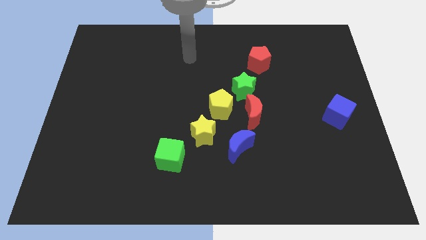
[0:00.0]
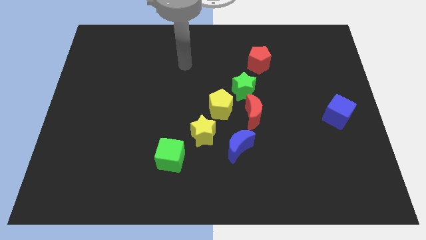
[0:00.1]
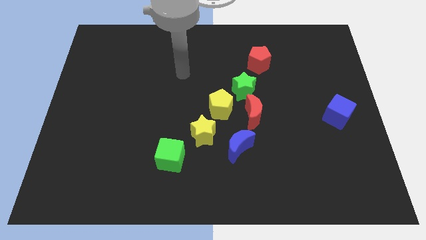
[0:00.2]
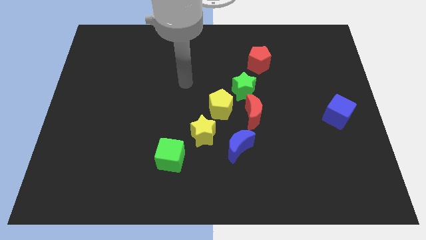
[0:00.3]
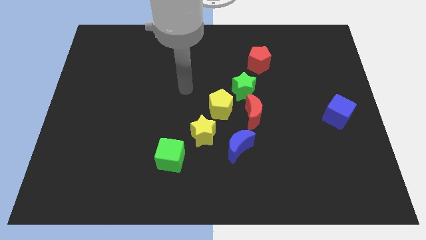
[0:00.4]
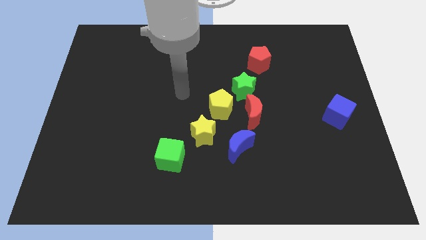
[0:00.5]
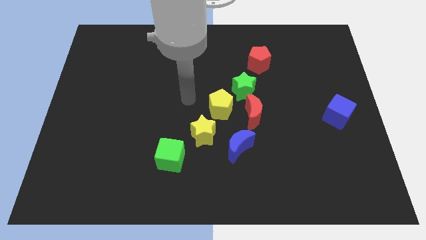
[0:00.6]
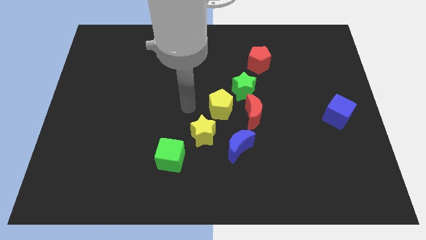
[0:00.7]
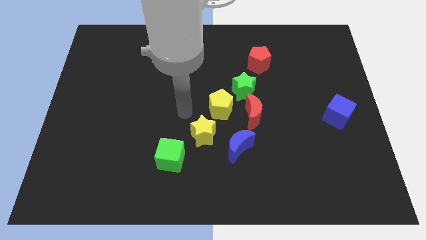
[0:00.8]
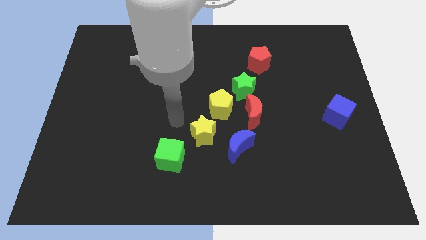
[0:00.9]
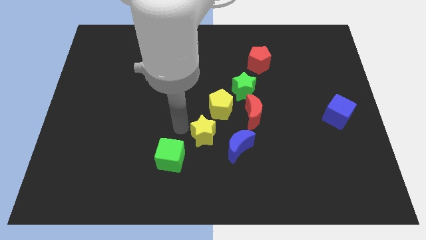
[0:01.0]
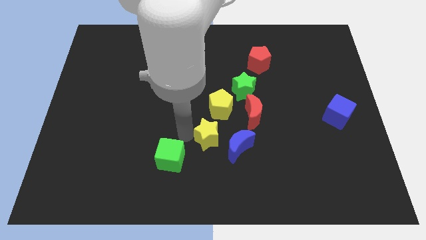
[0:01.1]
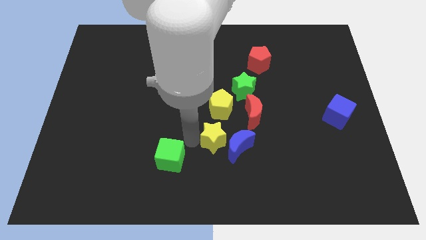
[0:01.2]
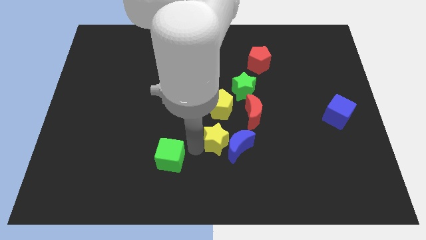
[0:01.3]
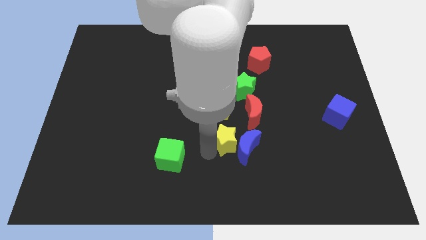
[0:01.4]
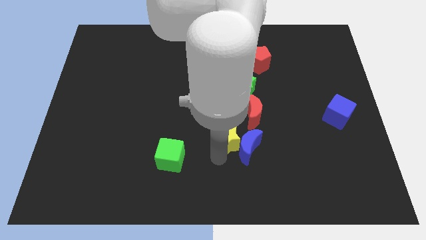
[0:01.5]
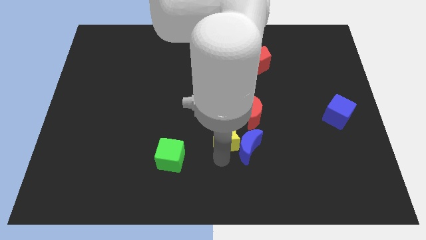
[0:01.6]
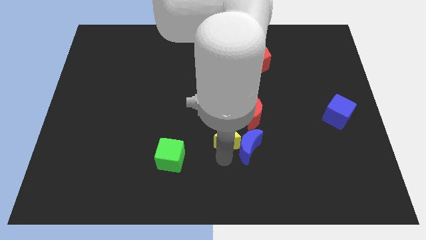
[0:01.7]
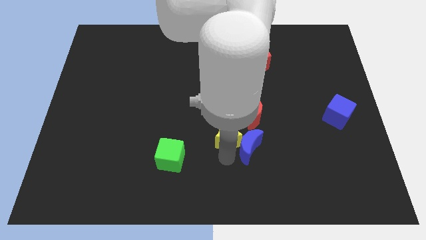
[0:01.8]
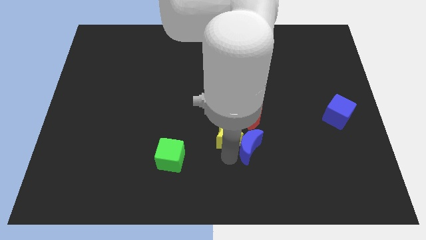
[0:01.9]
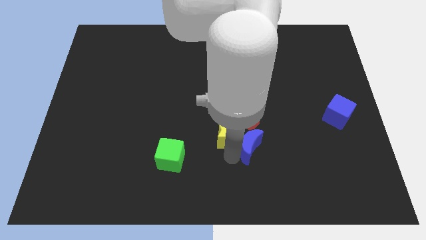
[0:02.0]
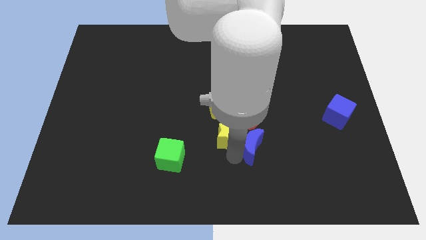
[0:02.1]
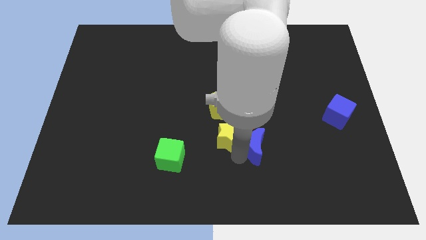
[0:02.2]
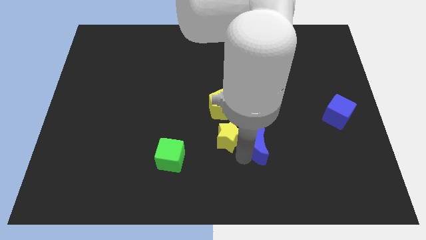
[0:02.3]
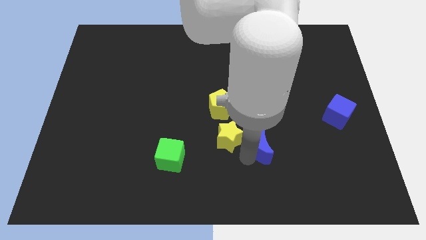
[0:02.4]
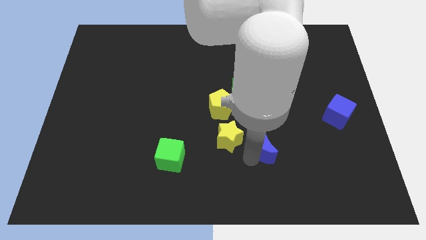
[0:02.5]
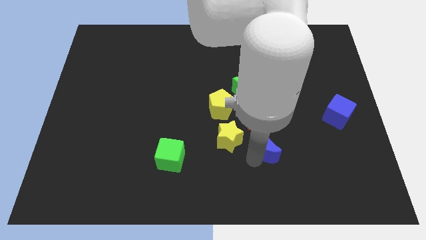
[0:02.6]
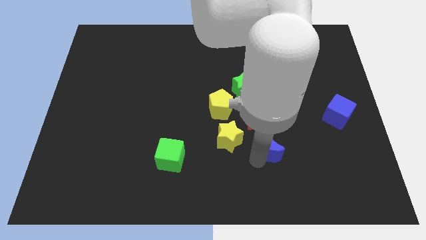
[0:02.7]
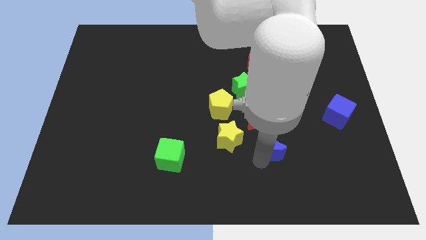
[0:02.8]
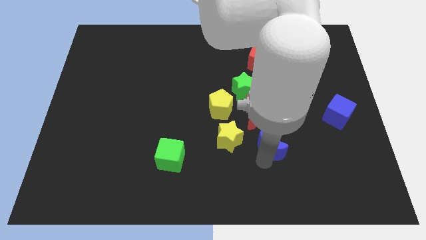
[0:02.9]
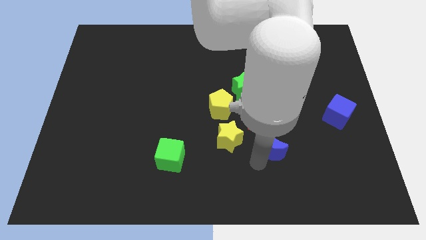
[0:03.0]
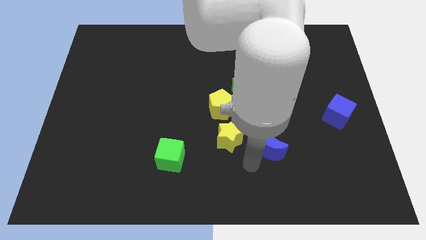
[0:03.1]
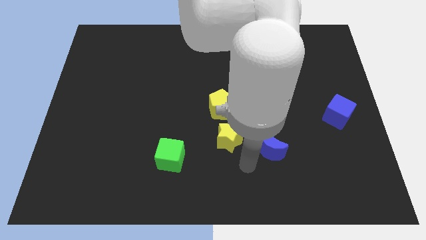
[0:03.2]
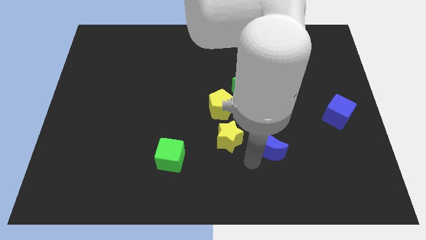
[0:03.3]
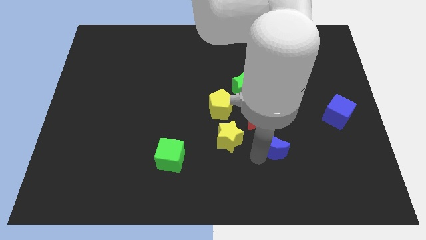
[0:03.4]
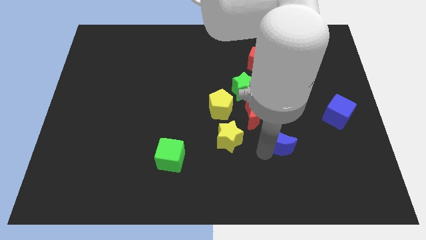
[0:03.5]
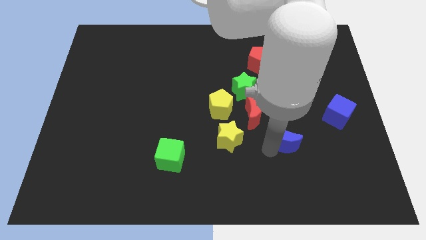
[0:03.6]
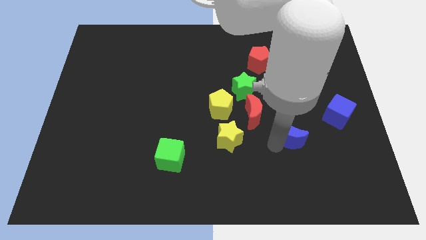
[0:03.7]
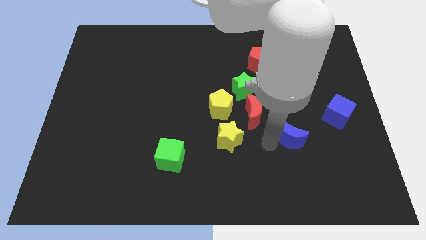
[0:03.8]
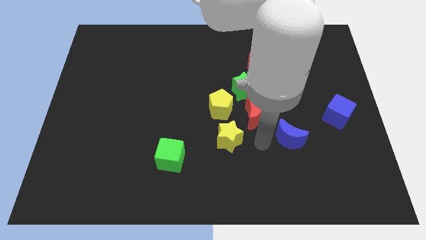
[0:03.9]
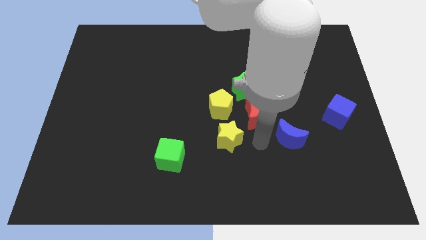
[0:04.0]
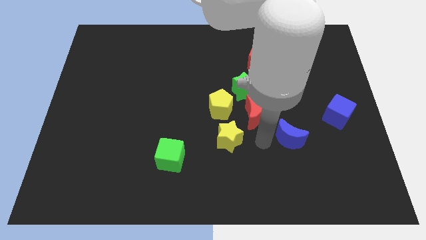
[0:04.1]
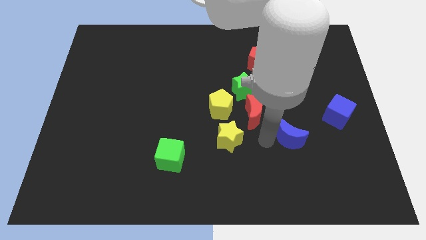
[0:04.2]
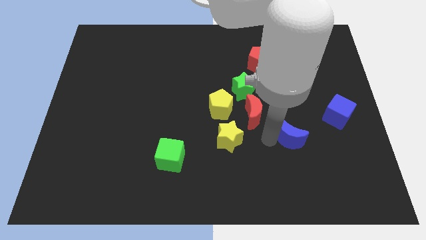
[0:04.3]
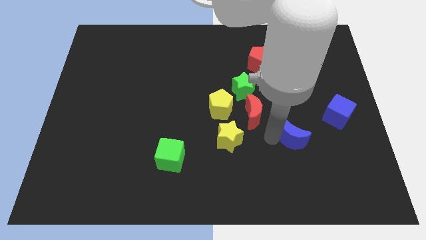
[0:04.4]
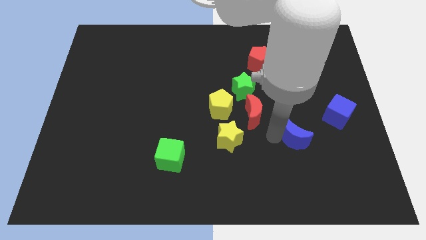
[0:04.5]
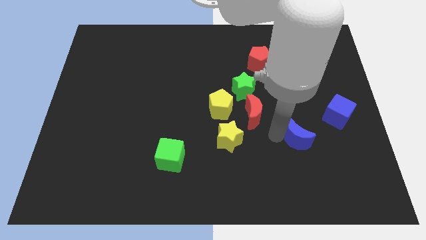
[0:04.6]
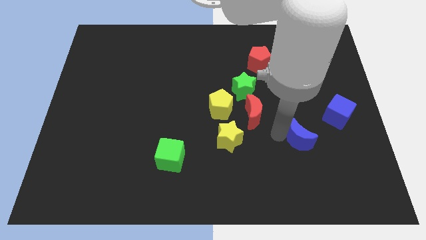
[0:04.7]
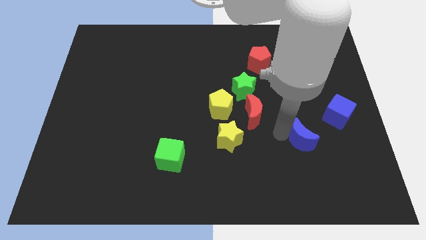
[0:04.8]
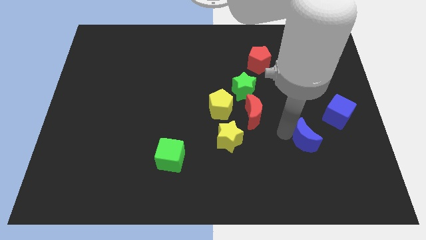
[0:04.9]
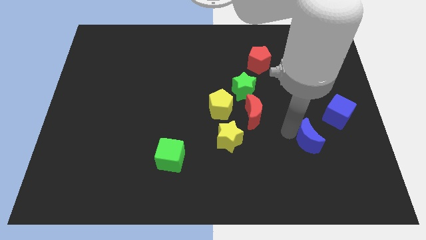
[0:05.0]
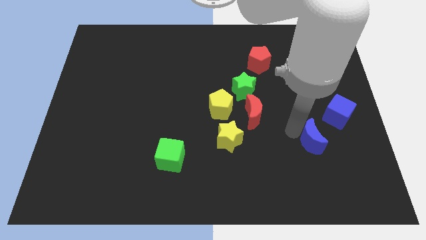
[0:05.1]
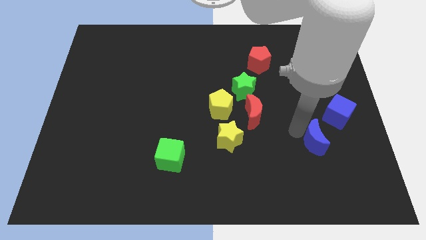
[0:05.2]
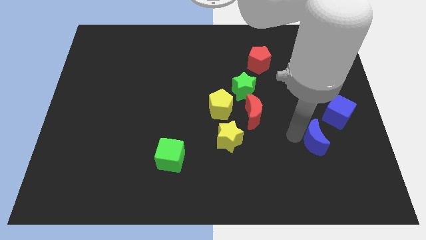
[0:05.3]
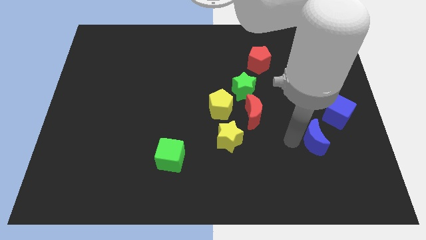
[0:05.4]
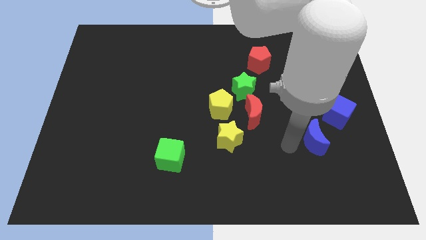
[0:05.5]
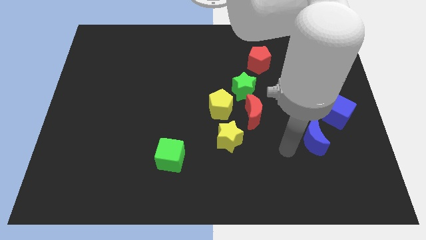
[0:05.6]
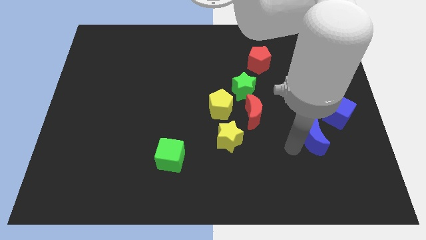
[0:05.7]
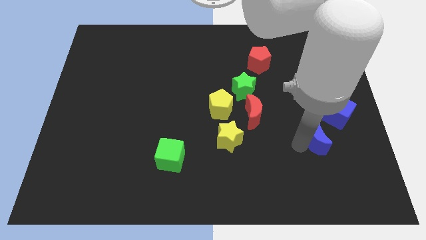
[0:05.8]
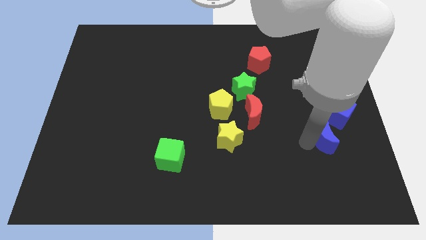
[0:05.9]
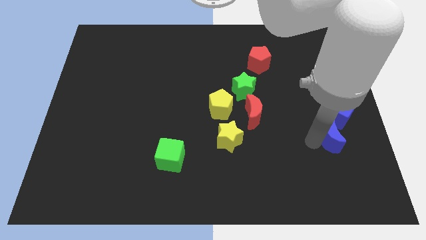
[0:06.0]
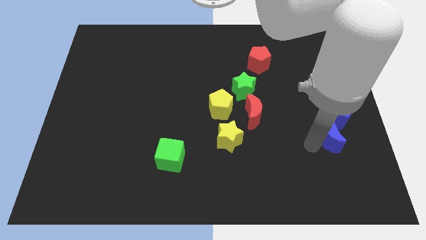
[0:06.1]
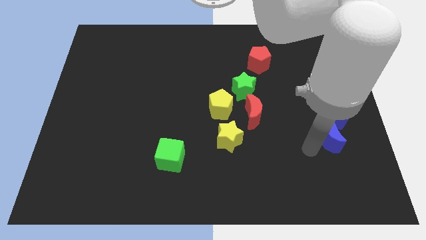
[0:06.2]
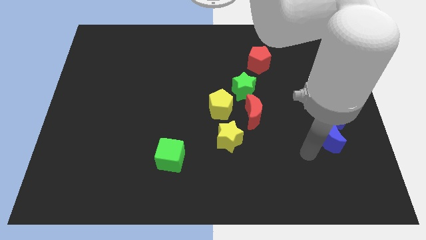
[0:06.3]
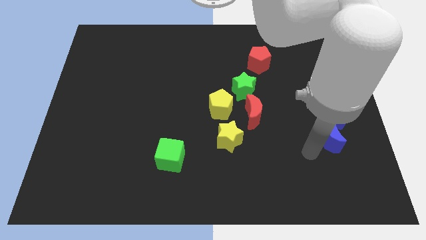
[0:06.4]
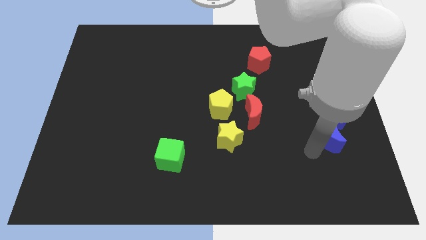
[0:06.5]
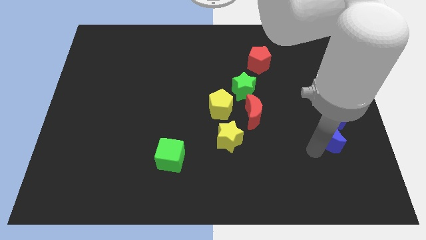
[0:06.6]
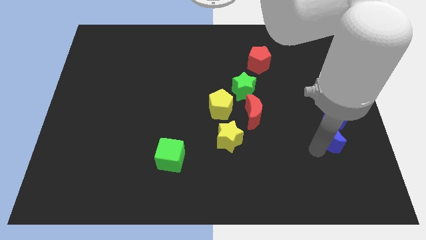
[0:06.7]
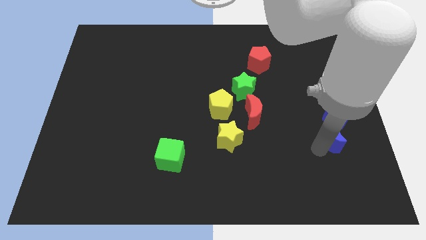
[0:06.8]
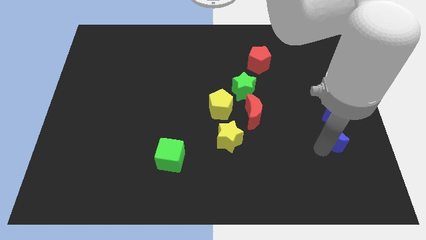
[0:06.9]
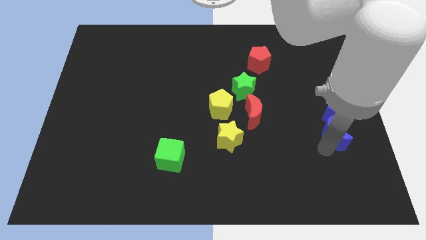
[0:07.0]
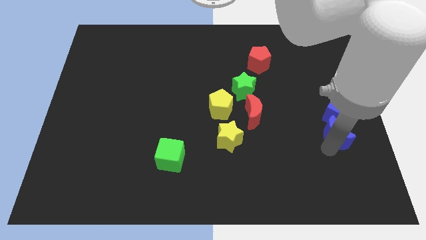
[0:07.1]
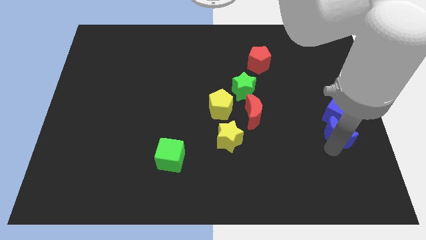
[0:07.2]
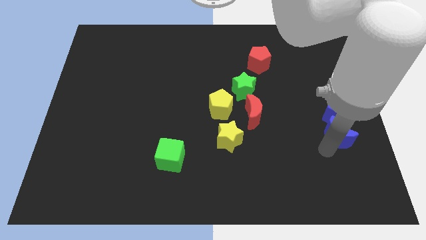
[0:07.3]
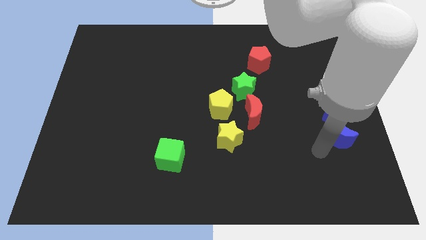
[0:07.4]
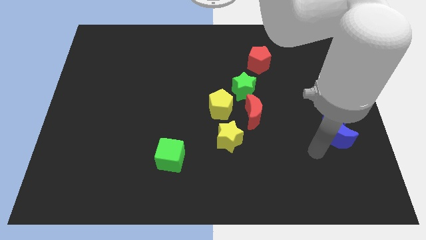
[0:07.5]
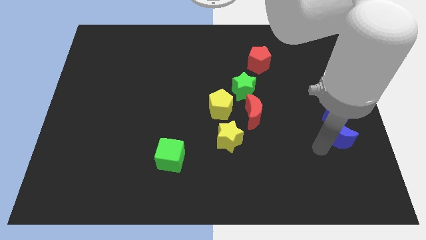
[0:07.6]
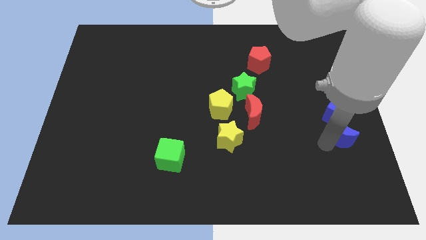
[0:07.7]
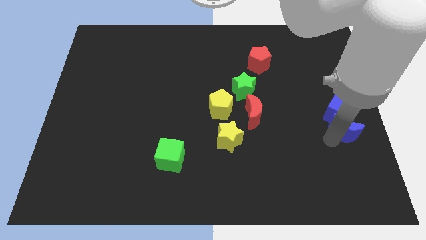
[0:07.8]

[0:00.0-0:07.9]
move the blue moon to the center right
